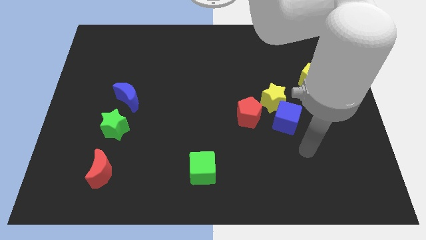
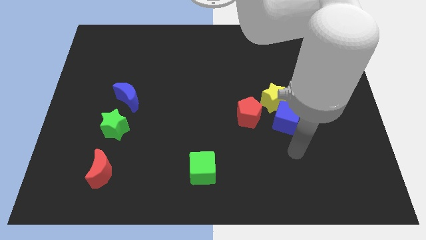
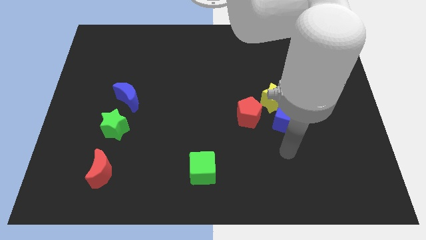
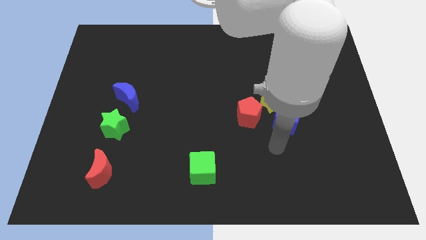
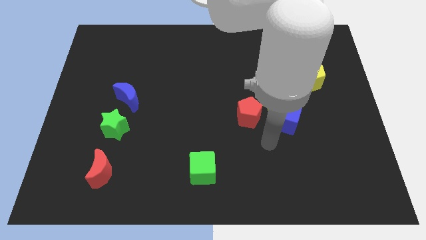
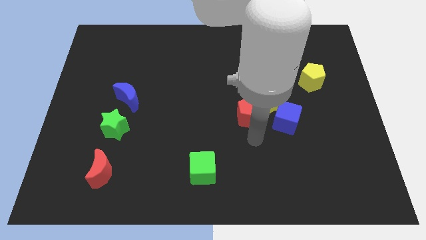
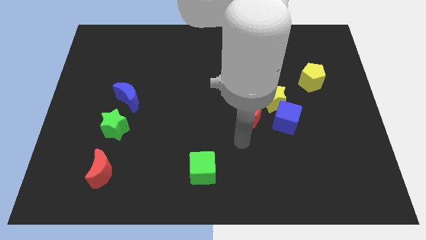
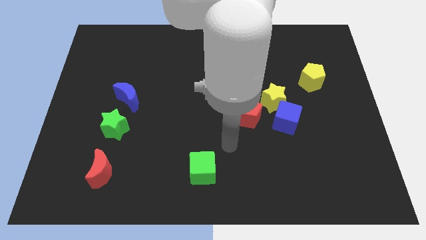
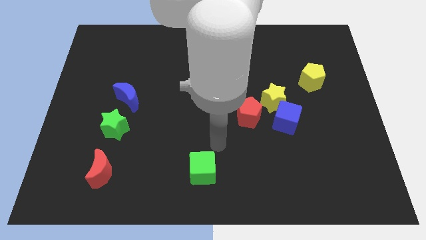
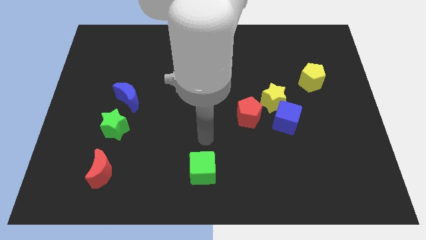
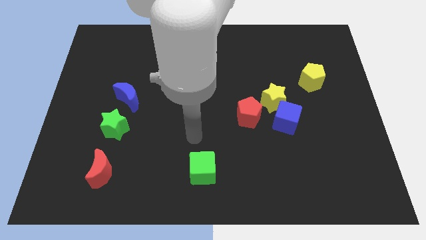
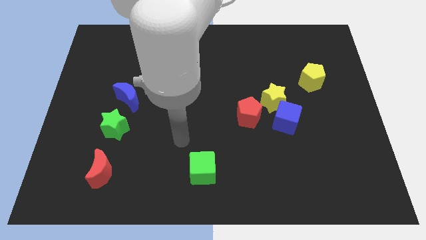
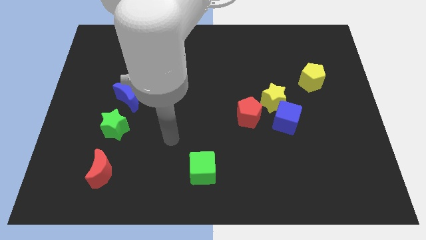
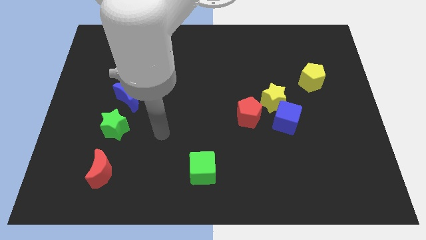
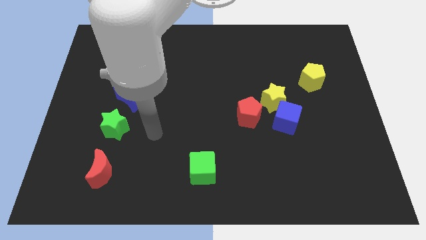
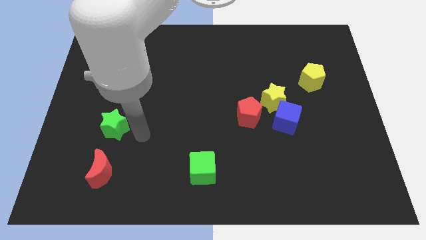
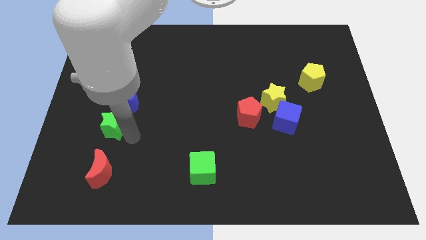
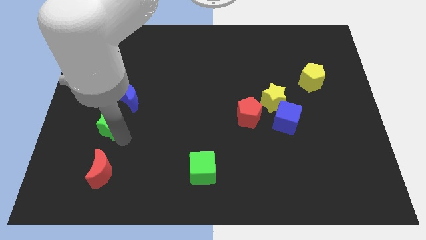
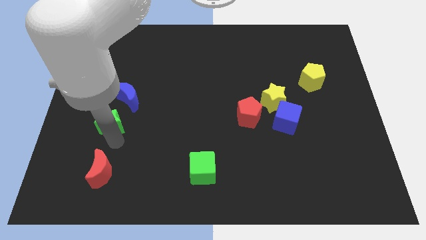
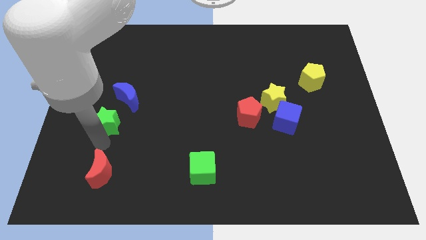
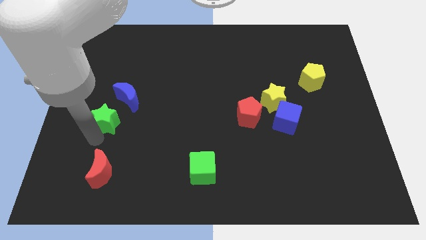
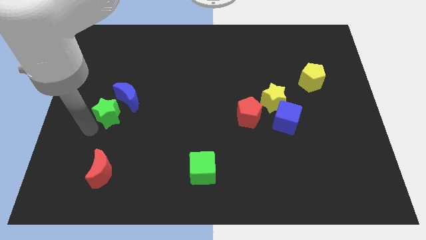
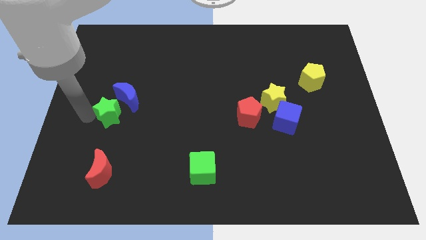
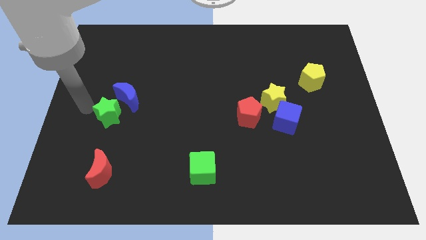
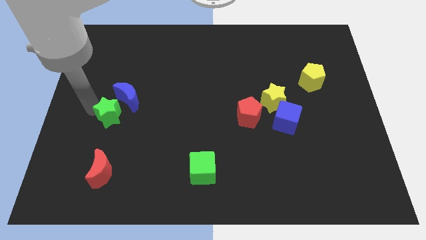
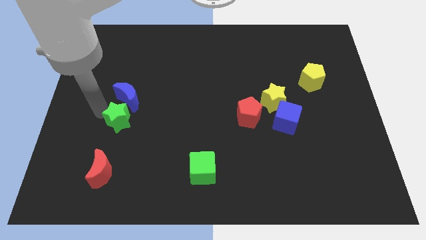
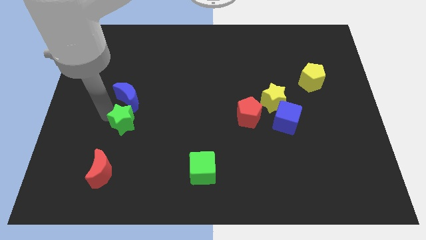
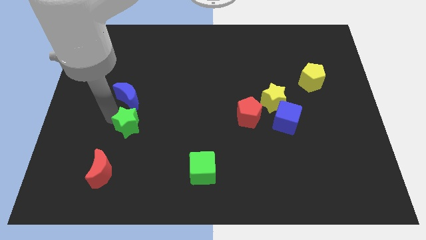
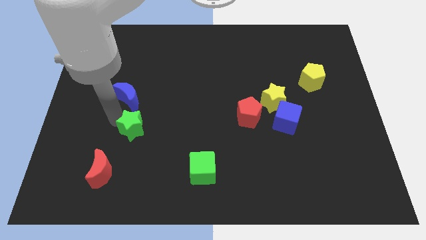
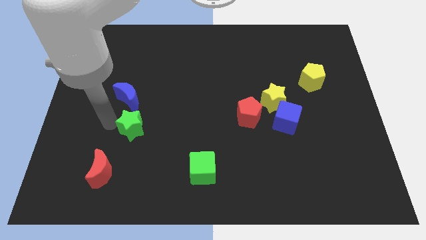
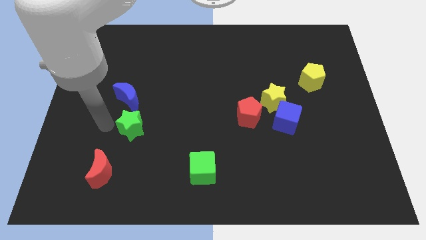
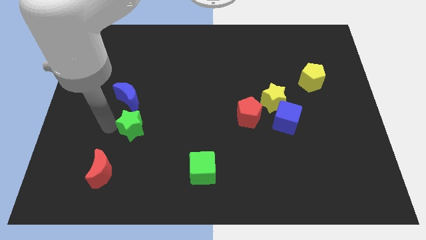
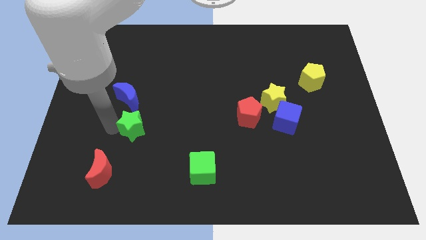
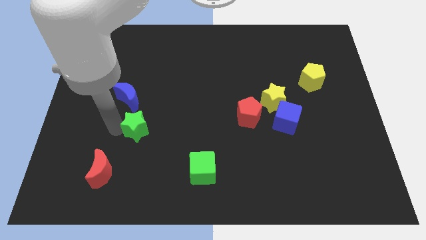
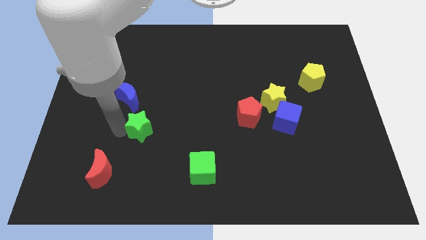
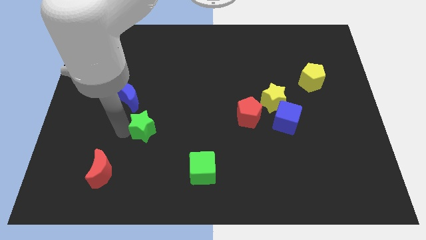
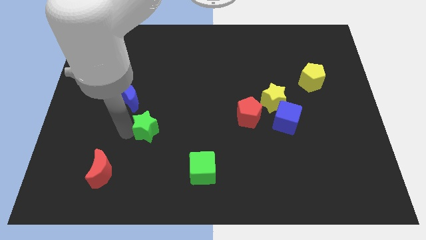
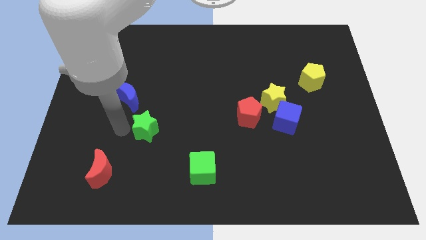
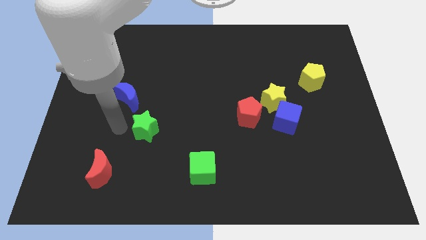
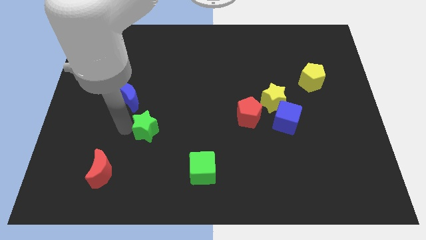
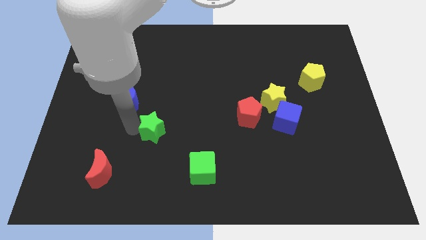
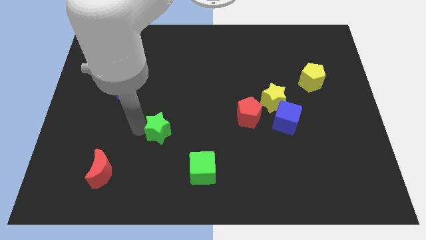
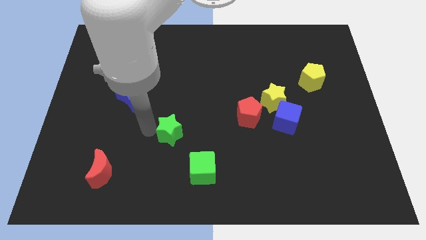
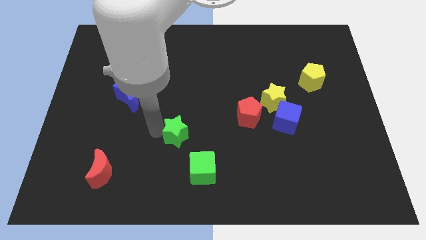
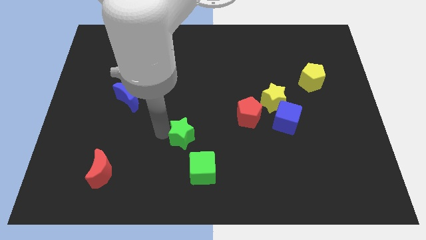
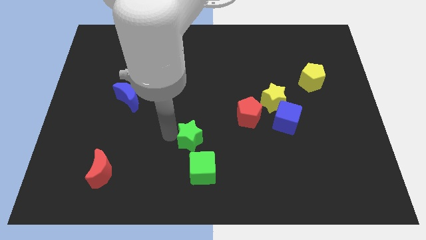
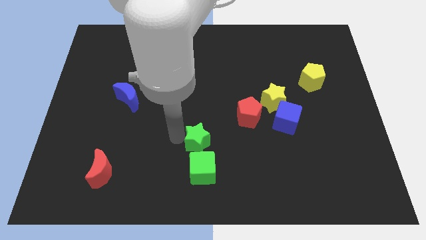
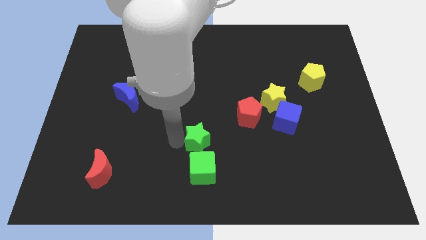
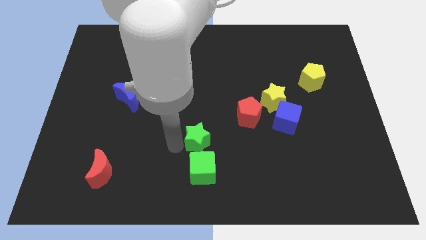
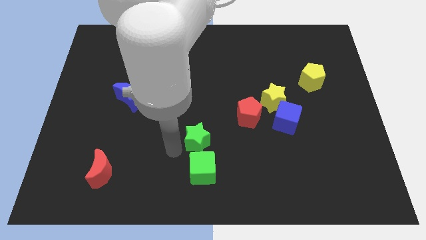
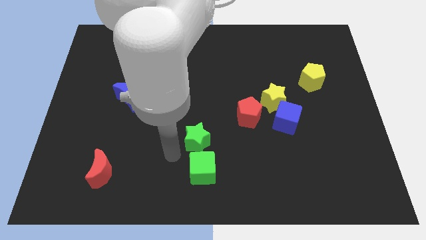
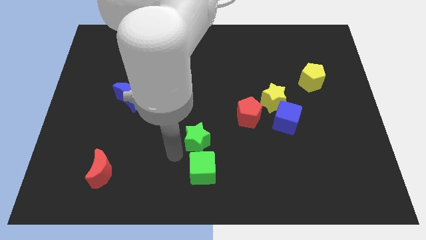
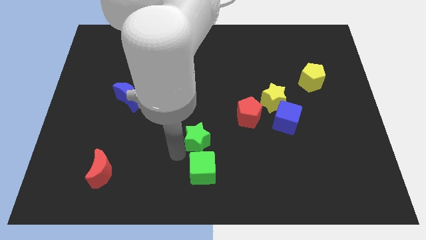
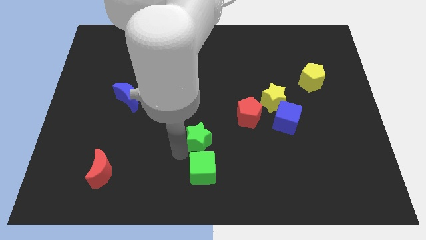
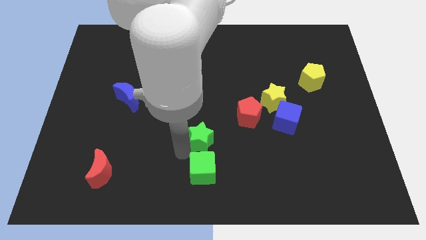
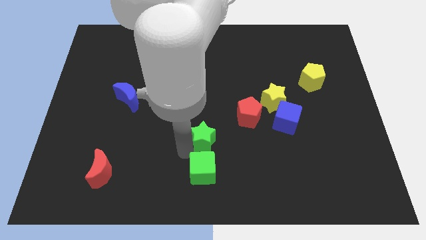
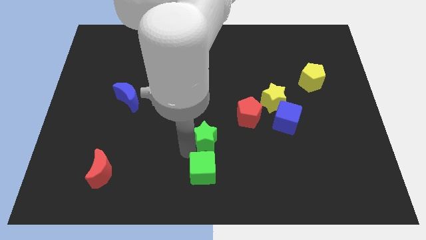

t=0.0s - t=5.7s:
push the green star right

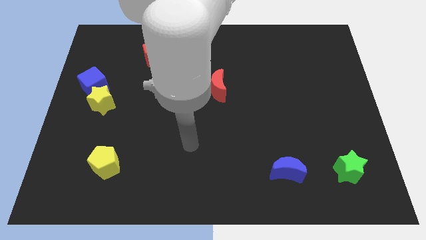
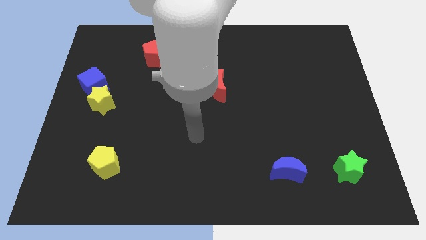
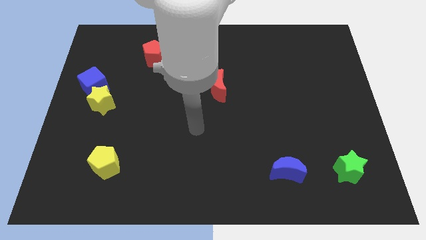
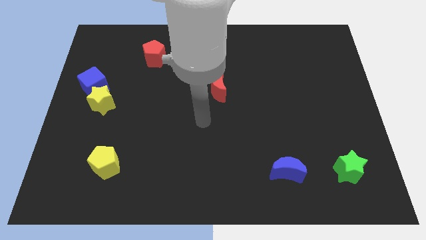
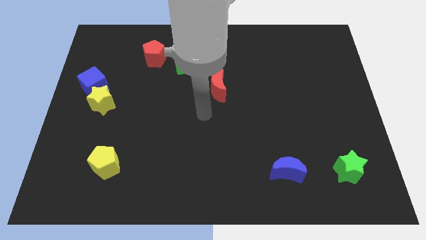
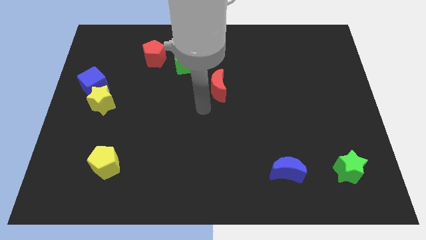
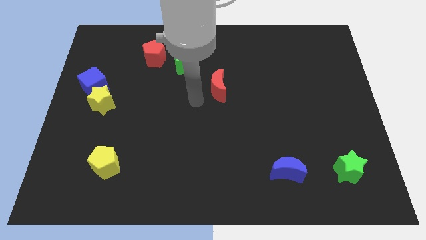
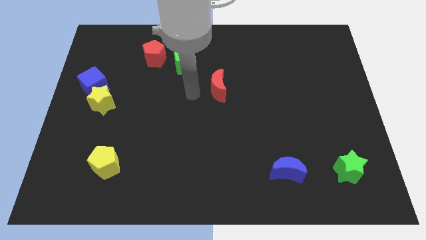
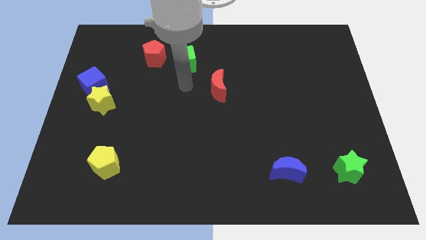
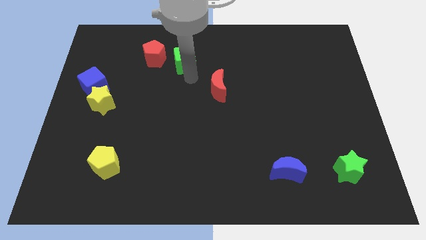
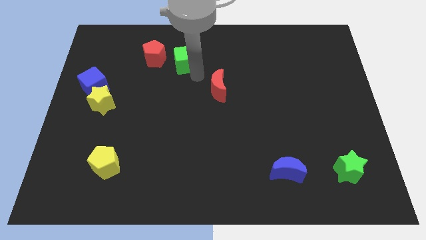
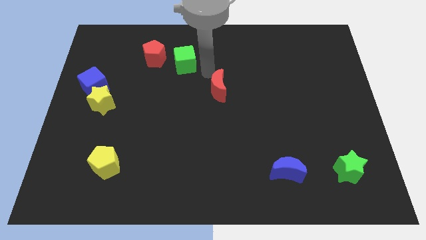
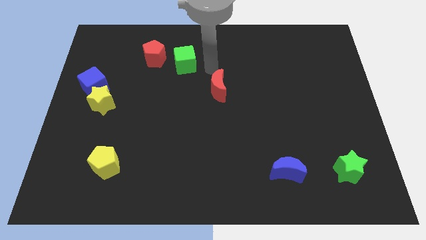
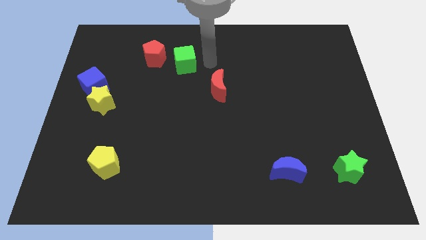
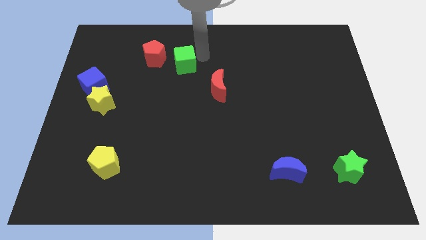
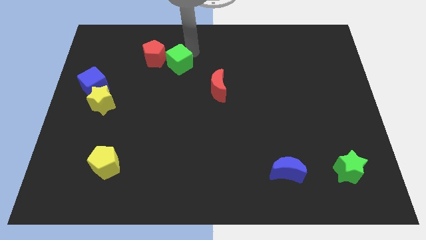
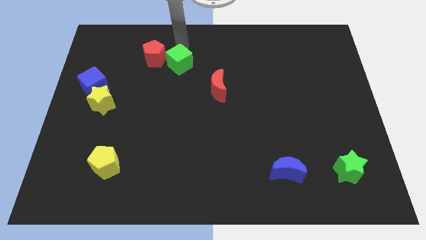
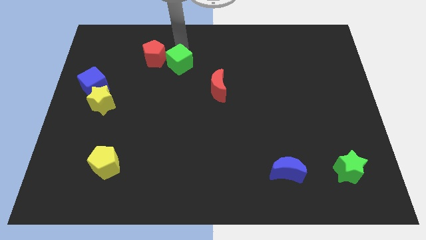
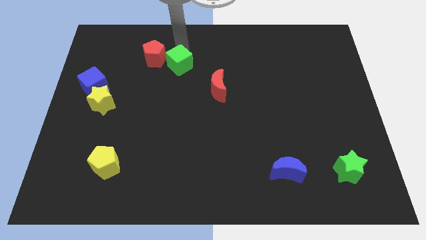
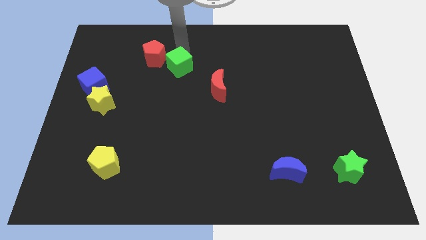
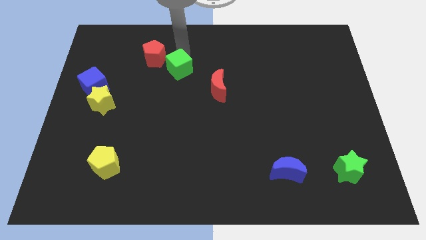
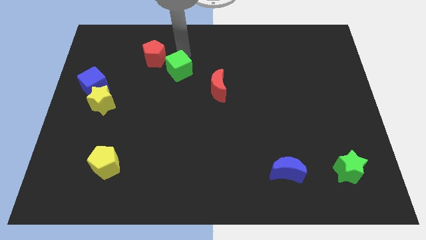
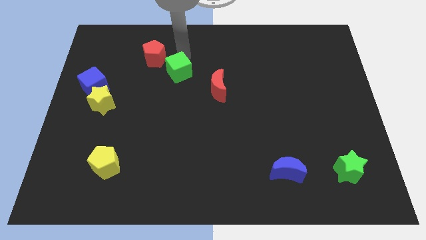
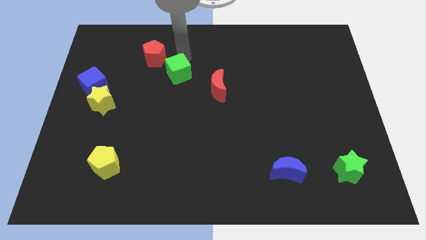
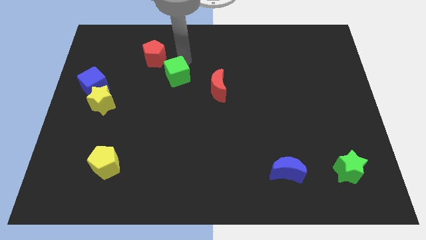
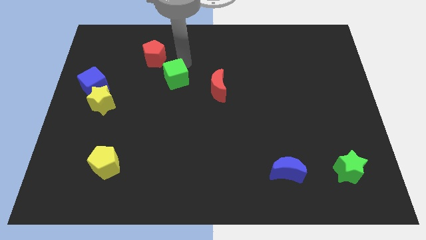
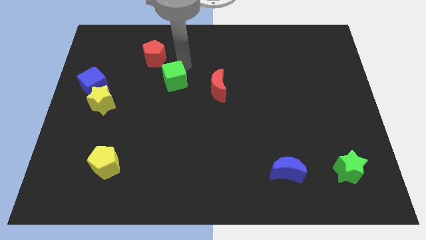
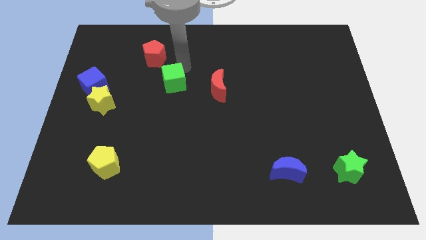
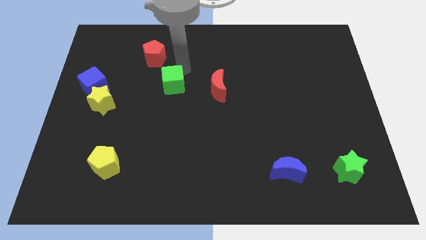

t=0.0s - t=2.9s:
slide the green cube a little bit down
